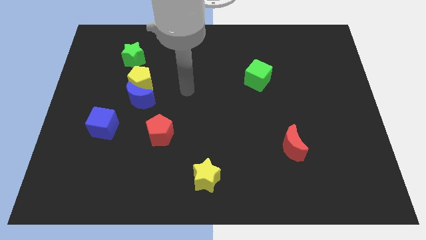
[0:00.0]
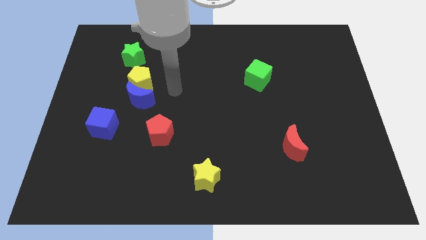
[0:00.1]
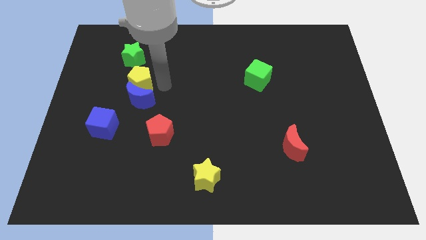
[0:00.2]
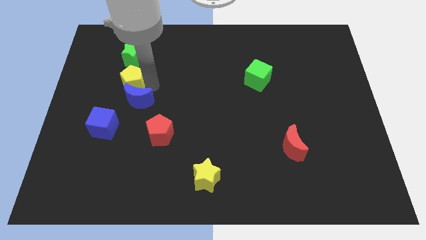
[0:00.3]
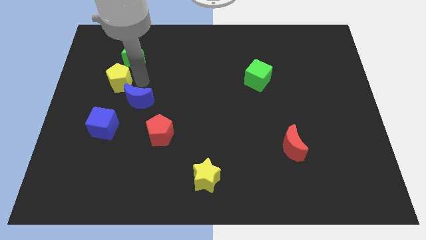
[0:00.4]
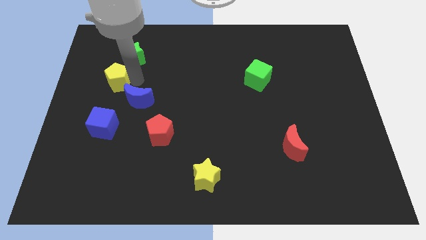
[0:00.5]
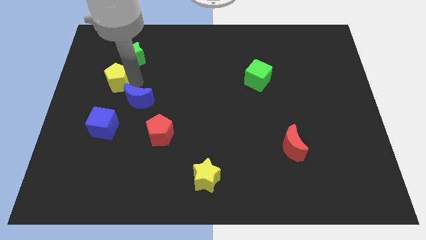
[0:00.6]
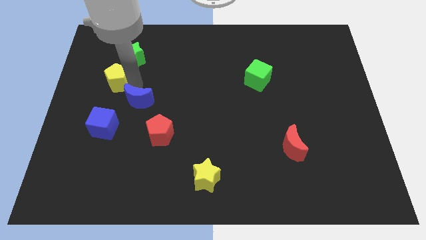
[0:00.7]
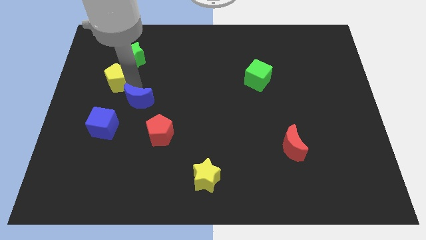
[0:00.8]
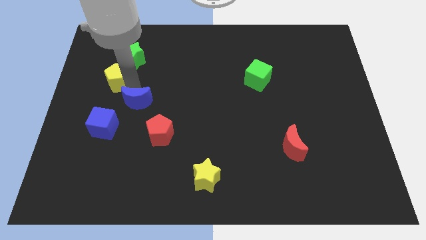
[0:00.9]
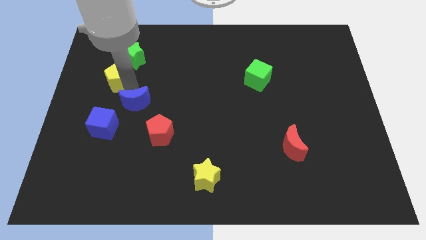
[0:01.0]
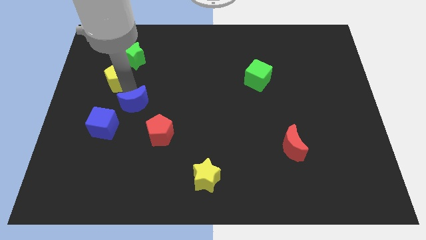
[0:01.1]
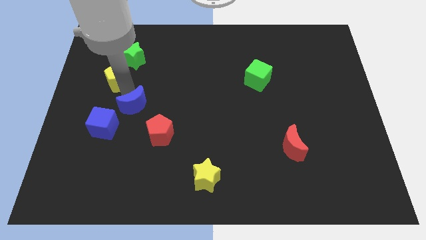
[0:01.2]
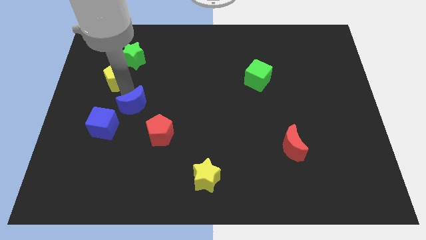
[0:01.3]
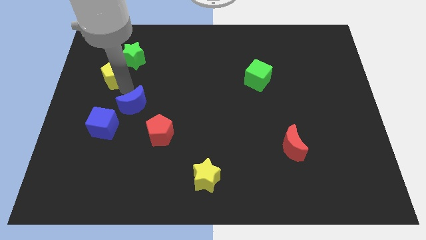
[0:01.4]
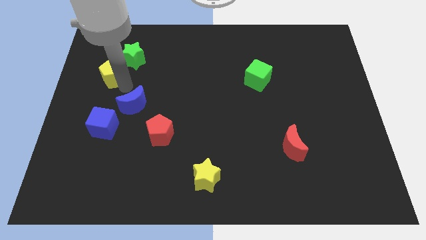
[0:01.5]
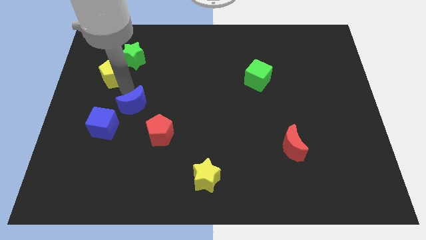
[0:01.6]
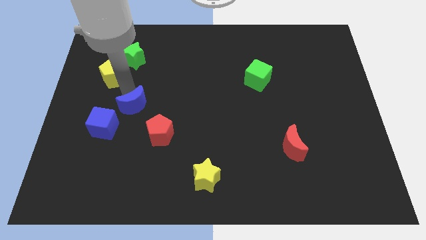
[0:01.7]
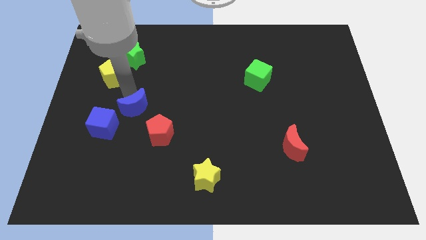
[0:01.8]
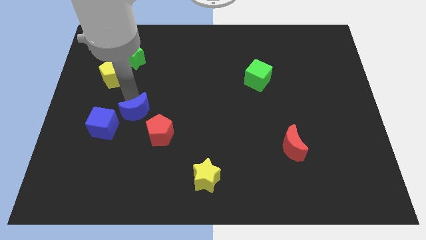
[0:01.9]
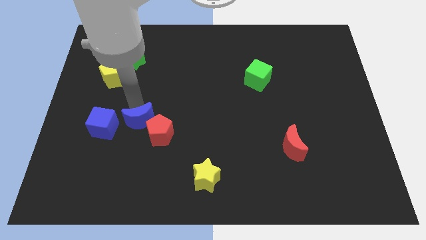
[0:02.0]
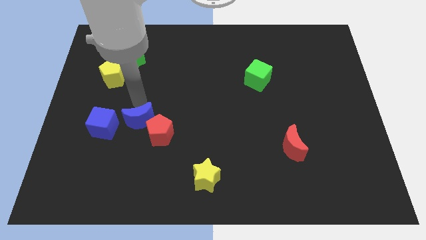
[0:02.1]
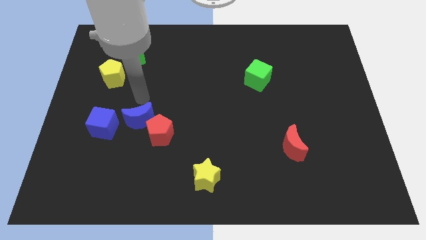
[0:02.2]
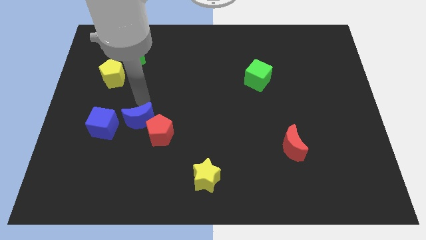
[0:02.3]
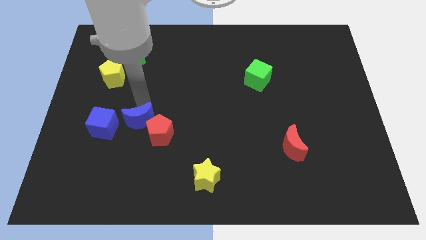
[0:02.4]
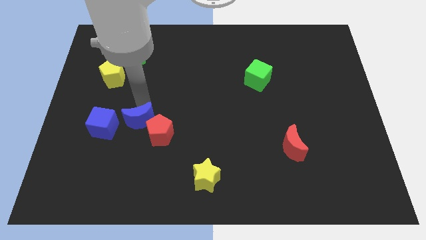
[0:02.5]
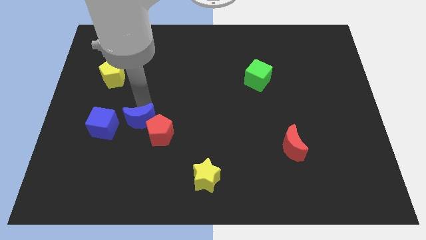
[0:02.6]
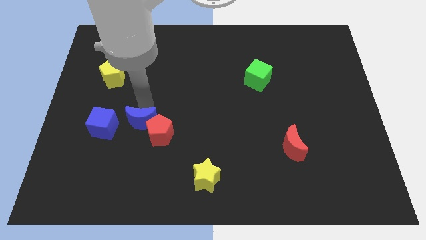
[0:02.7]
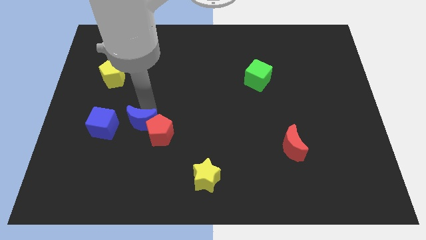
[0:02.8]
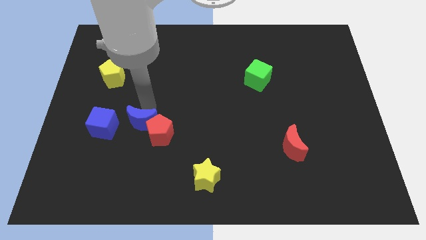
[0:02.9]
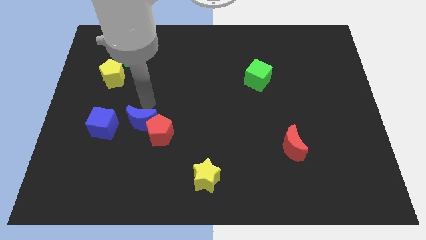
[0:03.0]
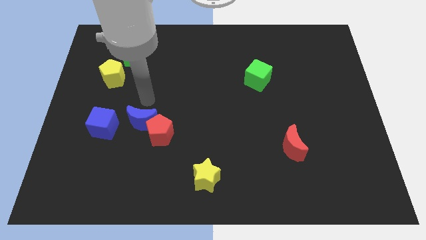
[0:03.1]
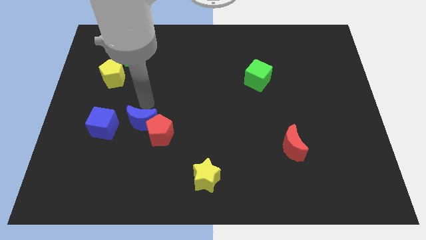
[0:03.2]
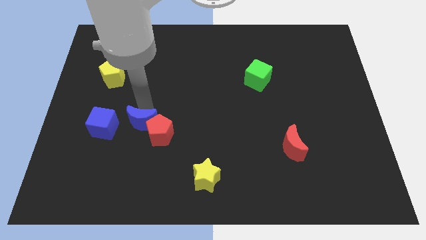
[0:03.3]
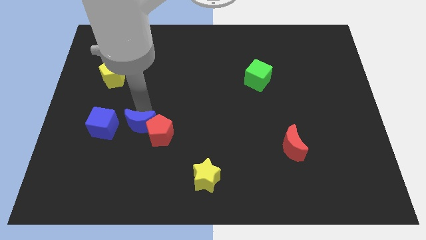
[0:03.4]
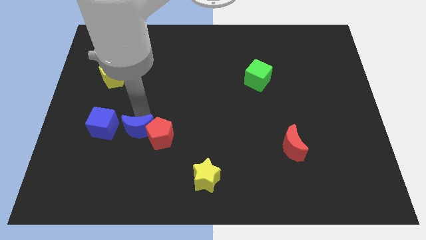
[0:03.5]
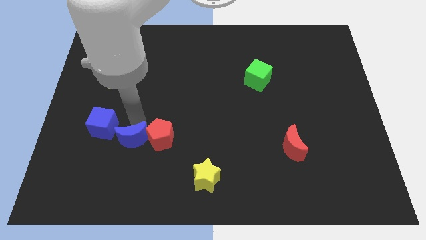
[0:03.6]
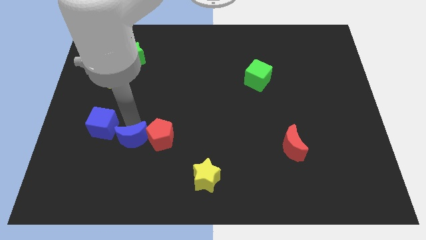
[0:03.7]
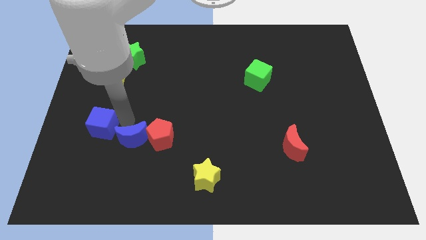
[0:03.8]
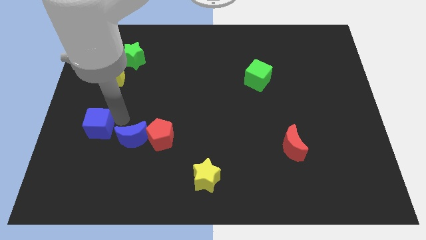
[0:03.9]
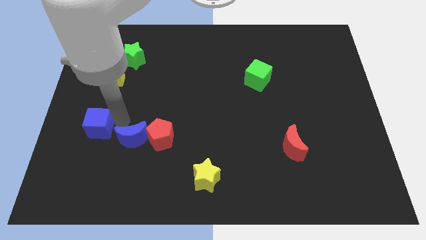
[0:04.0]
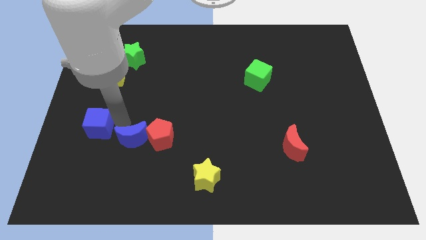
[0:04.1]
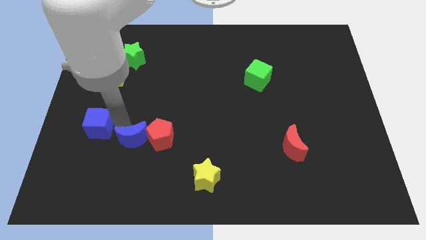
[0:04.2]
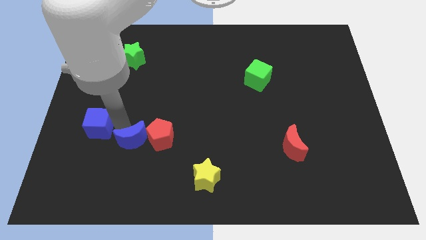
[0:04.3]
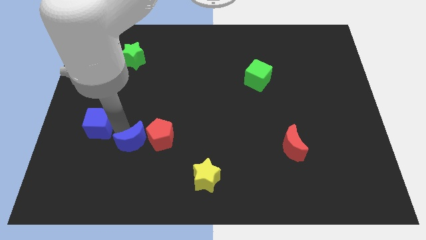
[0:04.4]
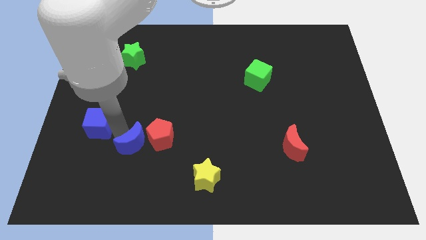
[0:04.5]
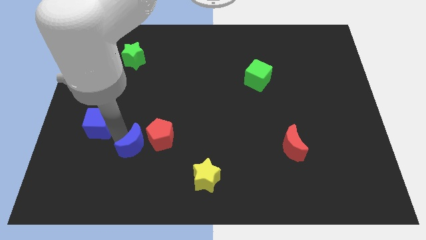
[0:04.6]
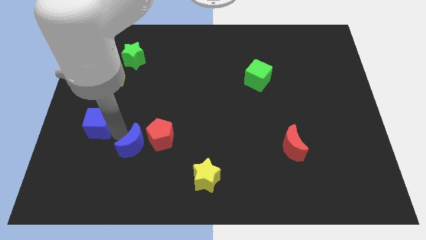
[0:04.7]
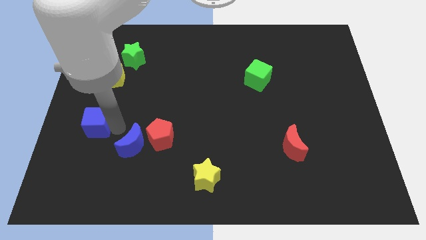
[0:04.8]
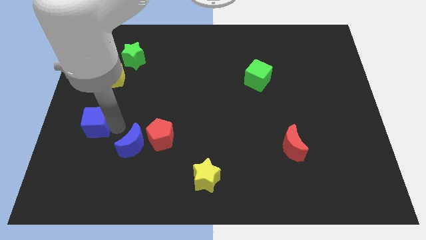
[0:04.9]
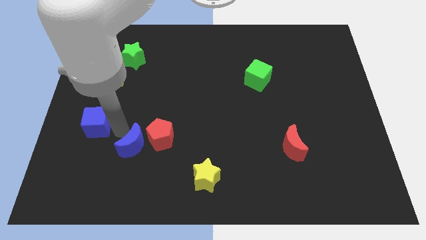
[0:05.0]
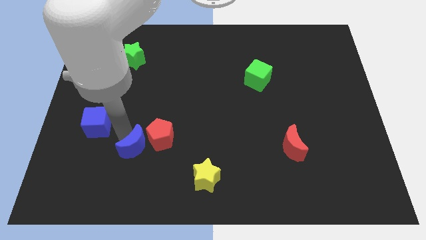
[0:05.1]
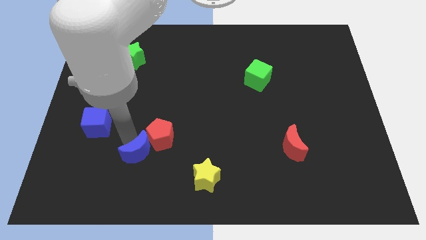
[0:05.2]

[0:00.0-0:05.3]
move the blue moon to the bottom side of the red pentagon

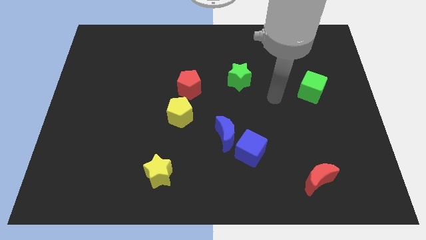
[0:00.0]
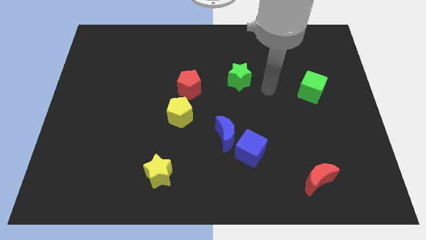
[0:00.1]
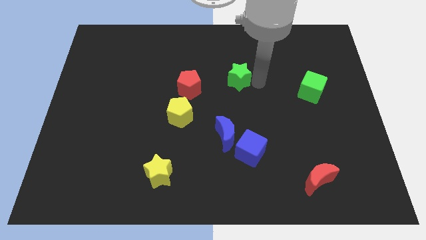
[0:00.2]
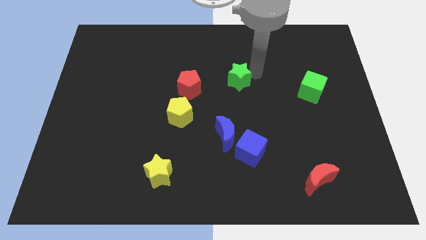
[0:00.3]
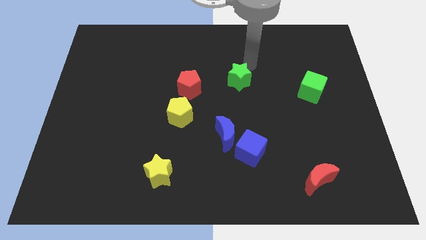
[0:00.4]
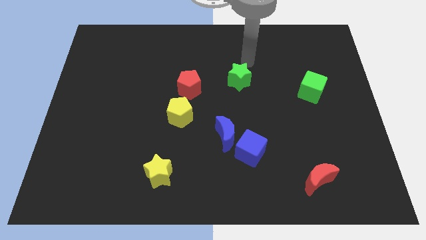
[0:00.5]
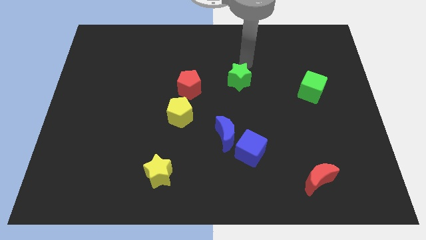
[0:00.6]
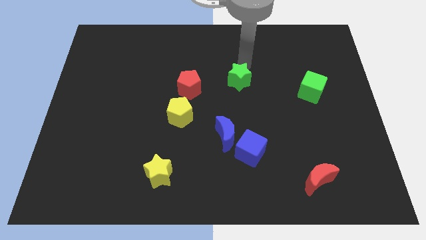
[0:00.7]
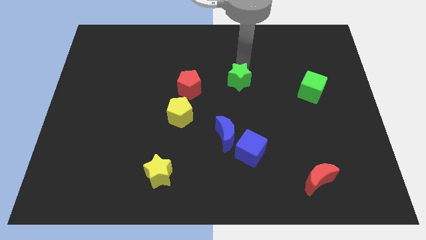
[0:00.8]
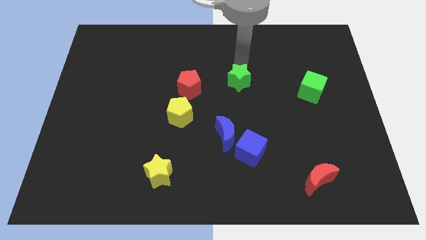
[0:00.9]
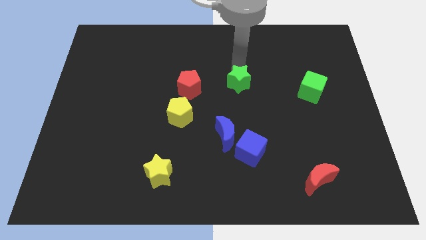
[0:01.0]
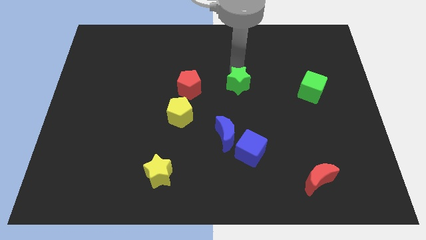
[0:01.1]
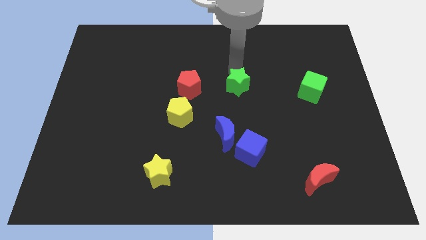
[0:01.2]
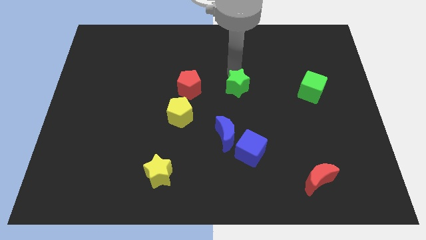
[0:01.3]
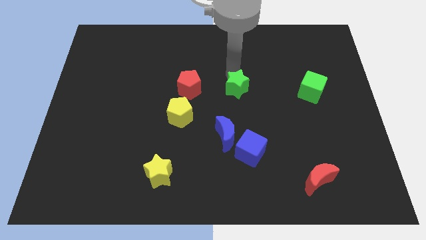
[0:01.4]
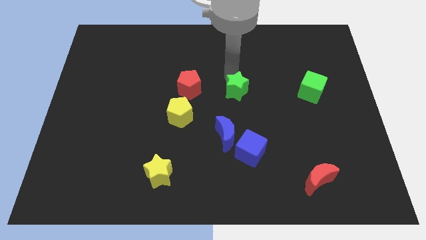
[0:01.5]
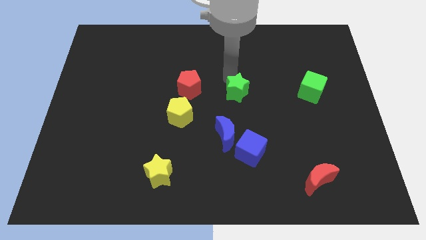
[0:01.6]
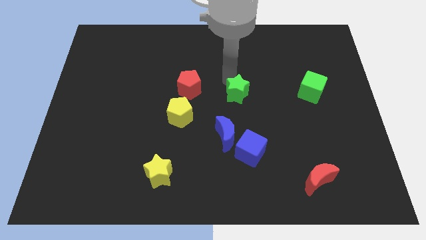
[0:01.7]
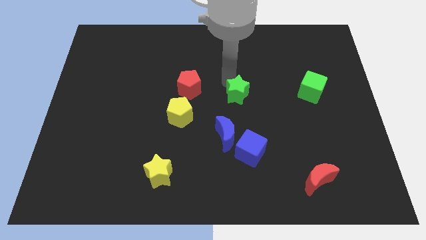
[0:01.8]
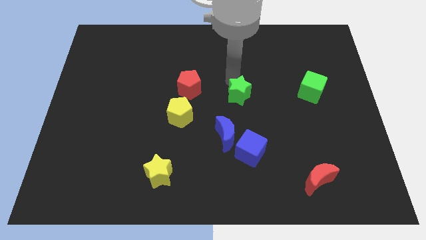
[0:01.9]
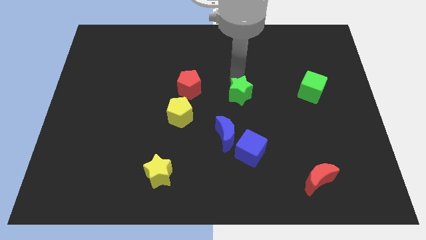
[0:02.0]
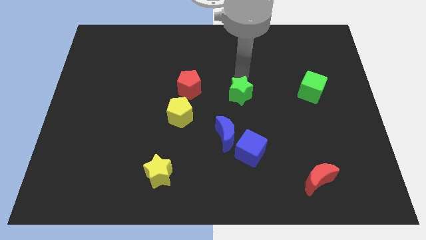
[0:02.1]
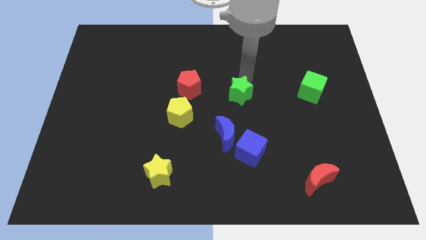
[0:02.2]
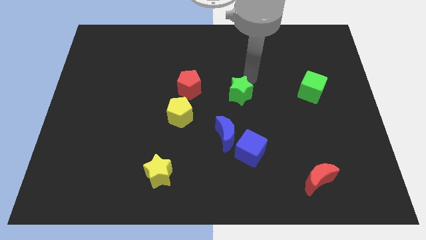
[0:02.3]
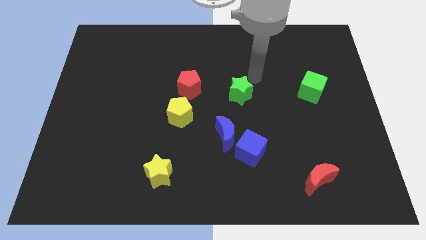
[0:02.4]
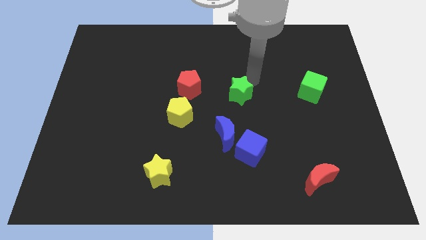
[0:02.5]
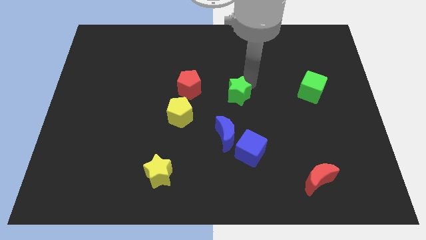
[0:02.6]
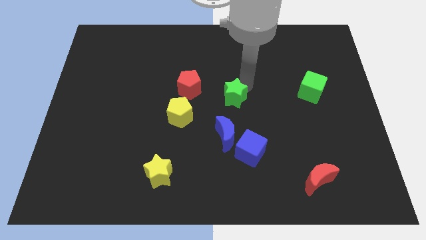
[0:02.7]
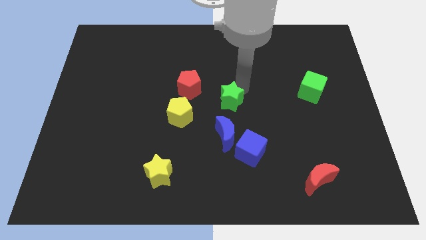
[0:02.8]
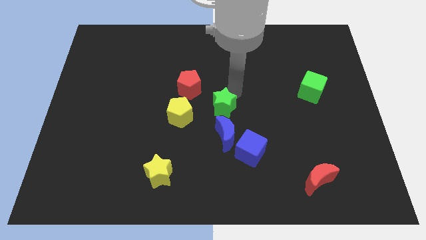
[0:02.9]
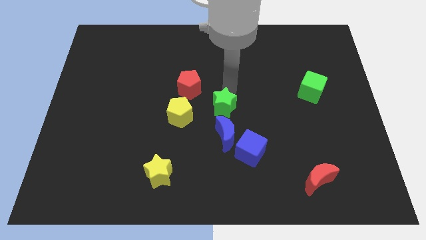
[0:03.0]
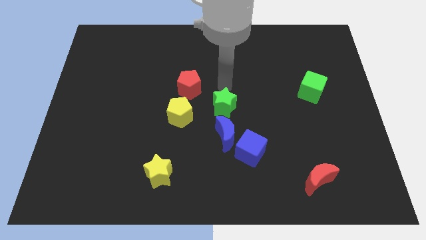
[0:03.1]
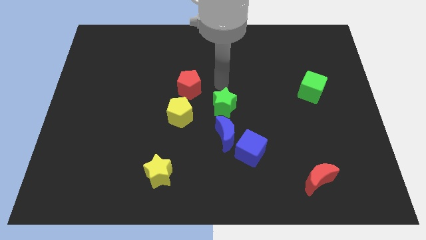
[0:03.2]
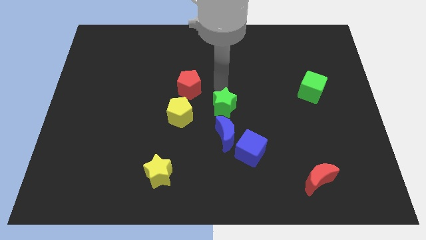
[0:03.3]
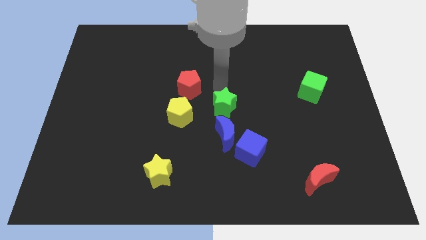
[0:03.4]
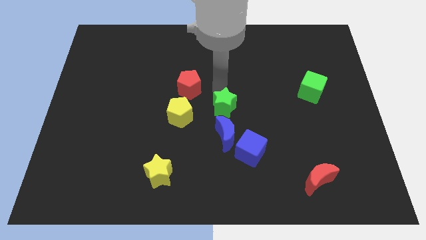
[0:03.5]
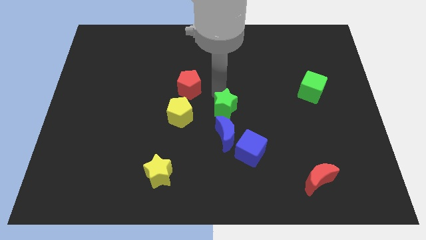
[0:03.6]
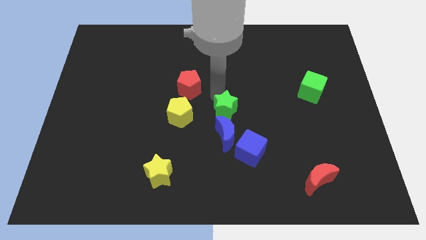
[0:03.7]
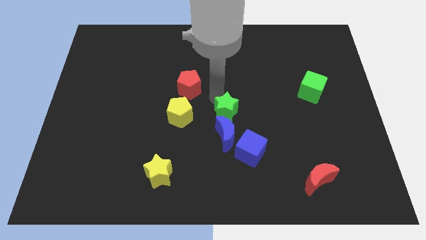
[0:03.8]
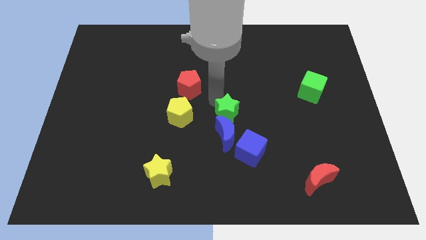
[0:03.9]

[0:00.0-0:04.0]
push the green star diagonally up and to the left of the blue cube
